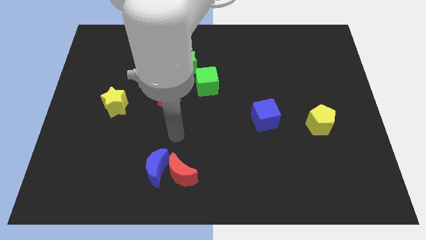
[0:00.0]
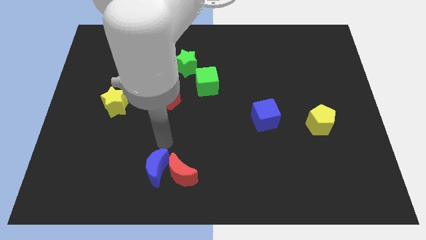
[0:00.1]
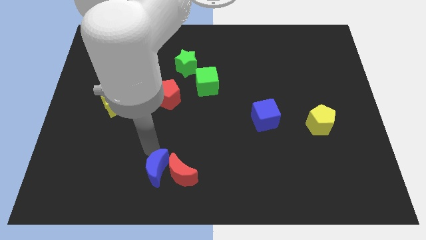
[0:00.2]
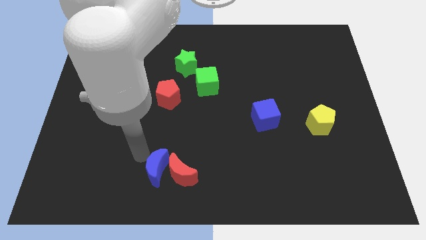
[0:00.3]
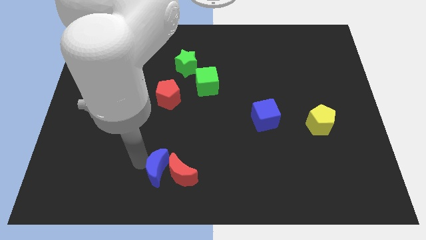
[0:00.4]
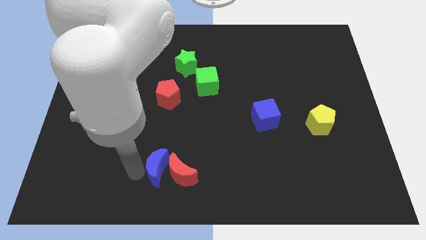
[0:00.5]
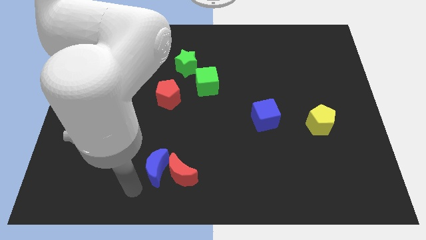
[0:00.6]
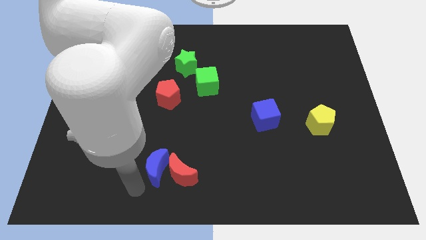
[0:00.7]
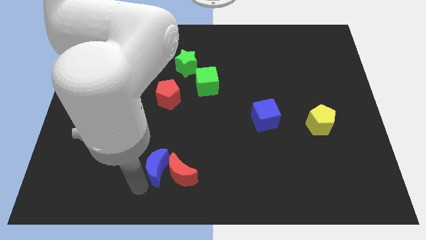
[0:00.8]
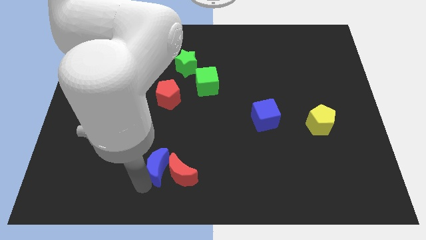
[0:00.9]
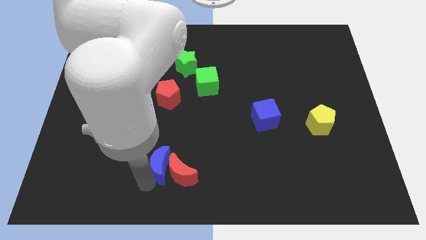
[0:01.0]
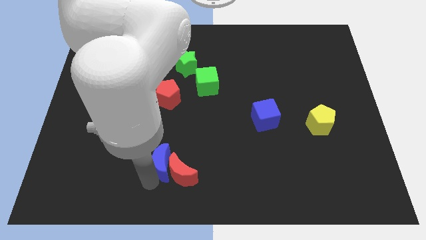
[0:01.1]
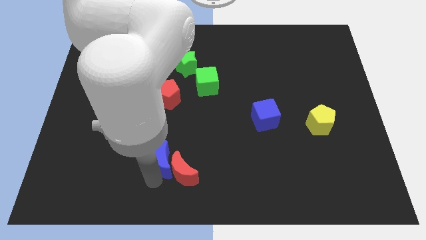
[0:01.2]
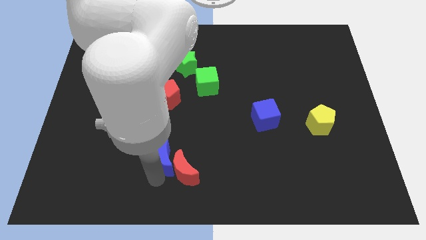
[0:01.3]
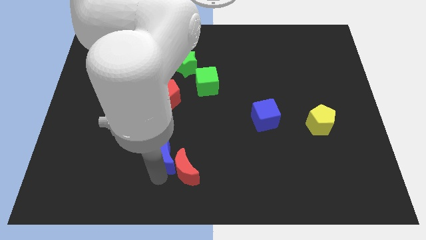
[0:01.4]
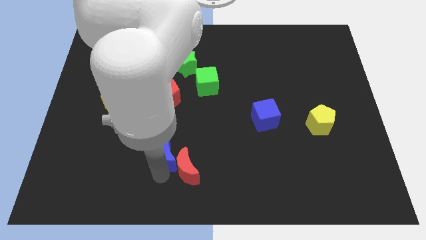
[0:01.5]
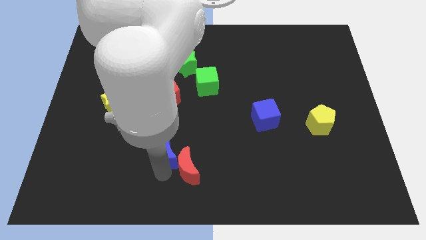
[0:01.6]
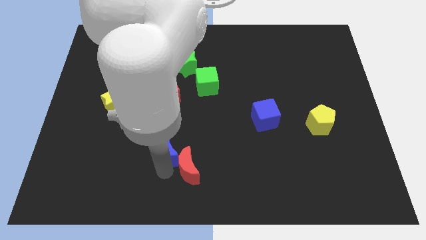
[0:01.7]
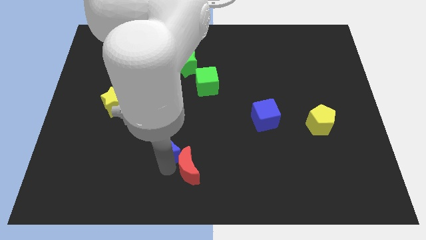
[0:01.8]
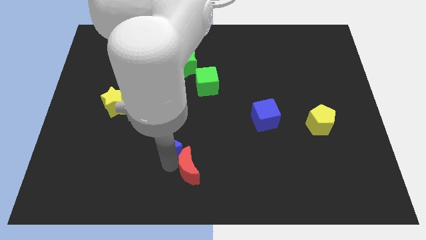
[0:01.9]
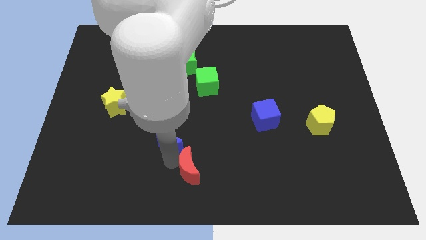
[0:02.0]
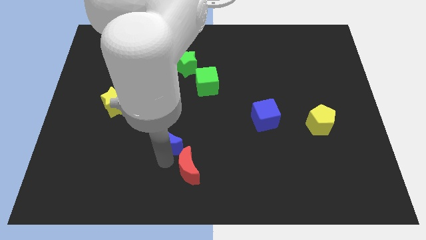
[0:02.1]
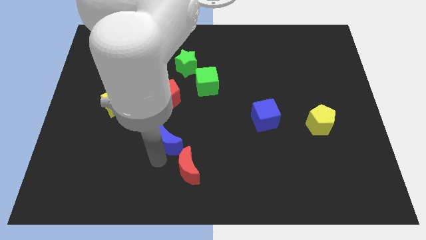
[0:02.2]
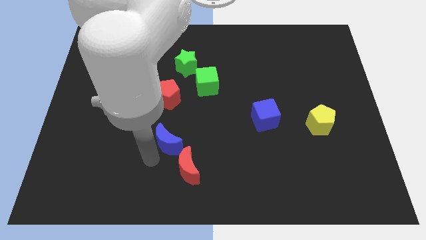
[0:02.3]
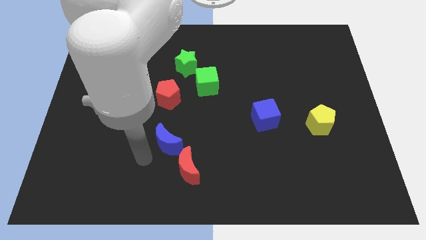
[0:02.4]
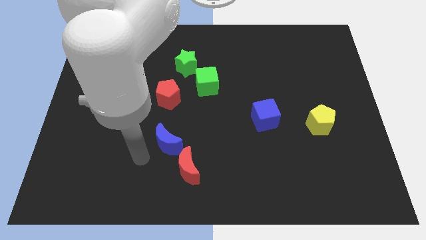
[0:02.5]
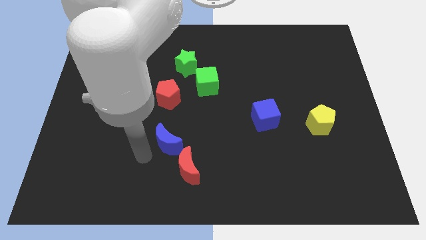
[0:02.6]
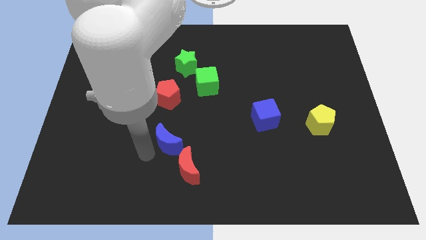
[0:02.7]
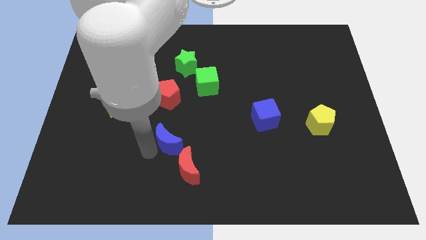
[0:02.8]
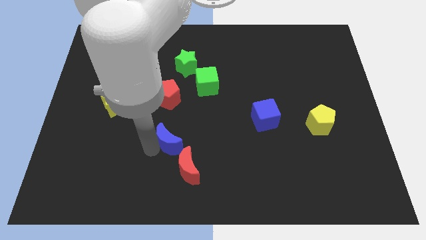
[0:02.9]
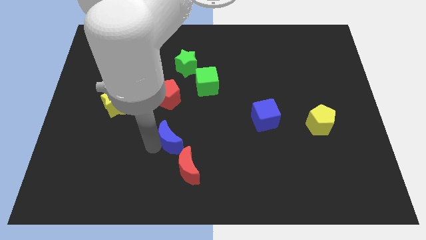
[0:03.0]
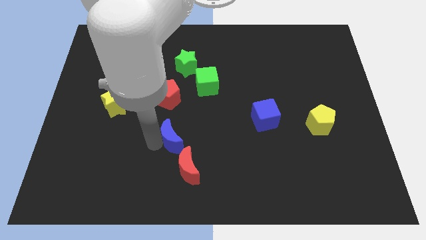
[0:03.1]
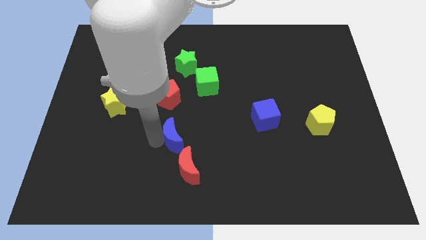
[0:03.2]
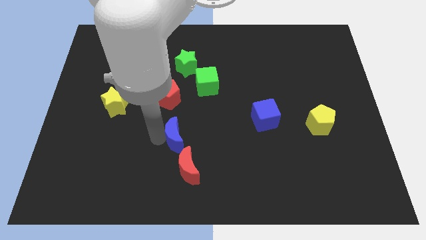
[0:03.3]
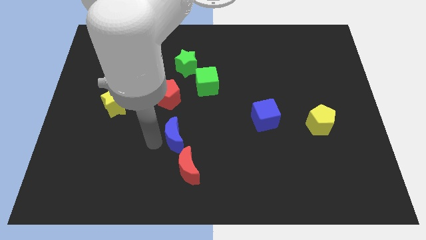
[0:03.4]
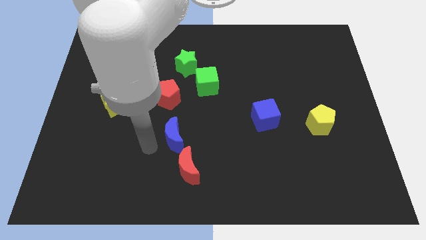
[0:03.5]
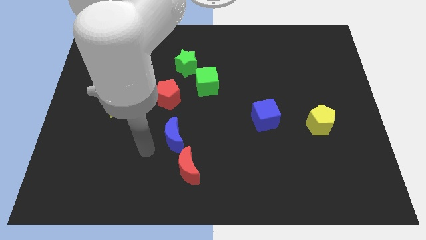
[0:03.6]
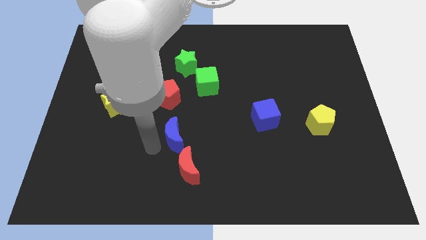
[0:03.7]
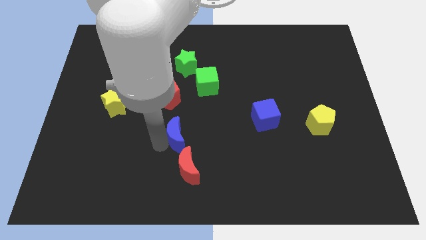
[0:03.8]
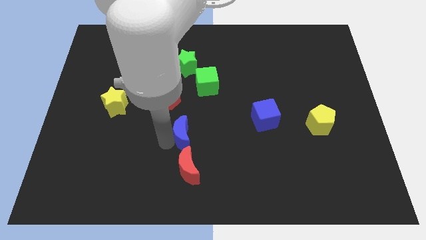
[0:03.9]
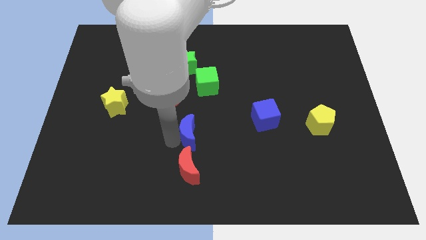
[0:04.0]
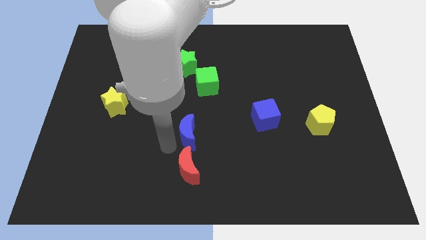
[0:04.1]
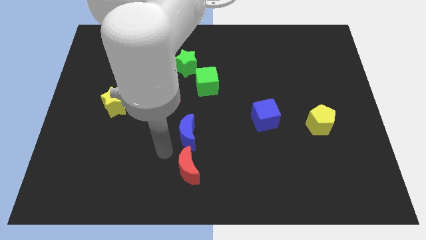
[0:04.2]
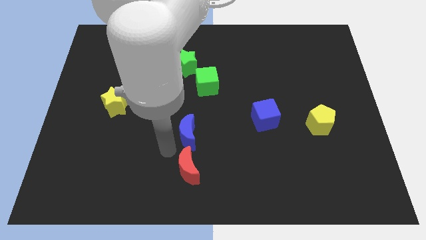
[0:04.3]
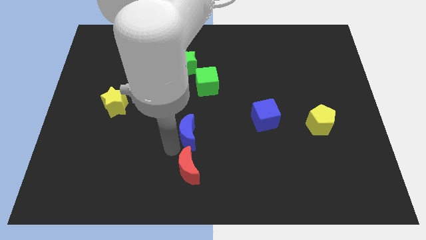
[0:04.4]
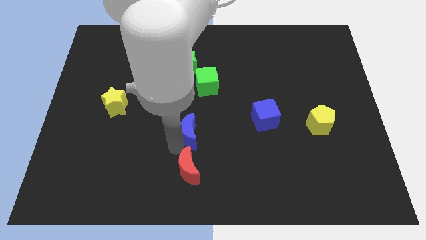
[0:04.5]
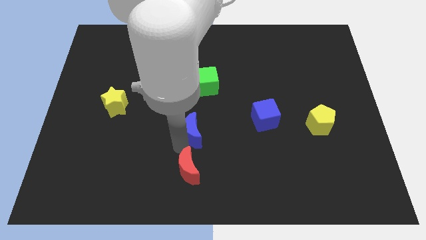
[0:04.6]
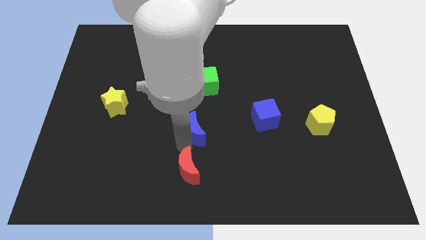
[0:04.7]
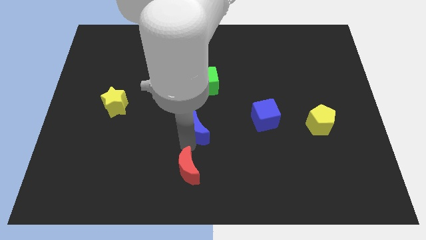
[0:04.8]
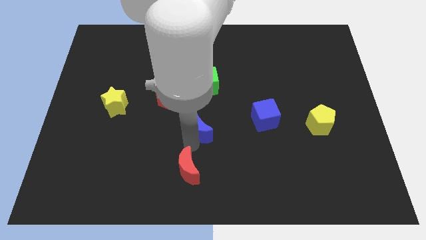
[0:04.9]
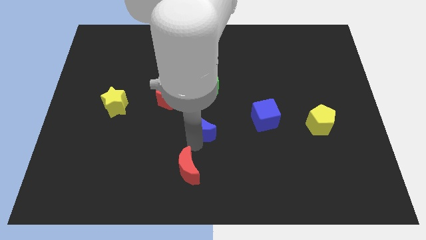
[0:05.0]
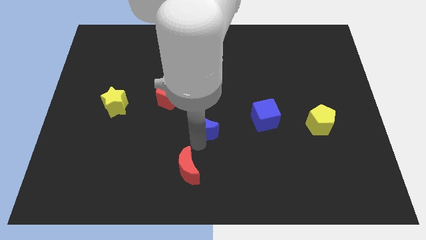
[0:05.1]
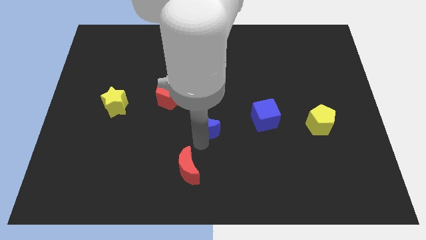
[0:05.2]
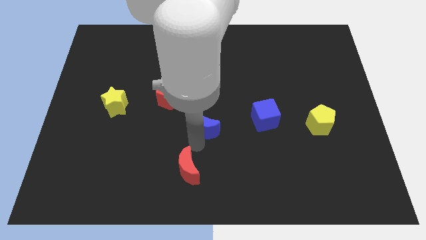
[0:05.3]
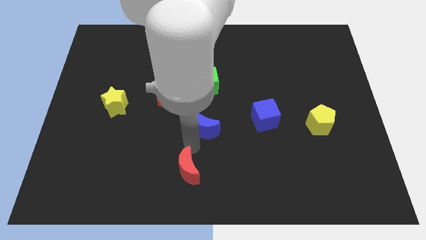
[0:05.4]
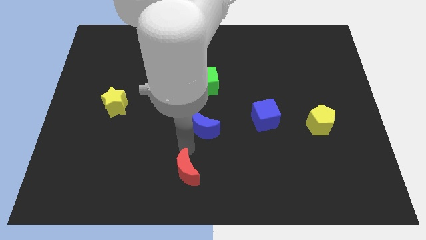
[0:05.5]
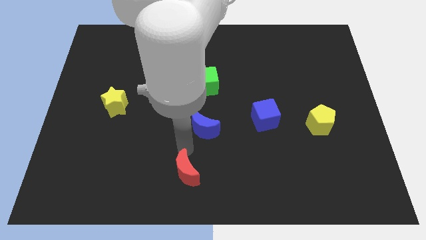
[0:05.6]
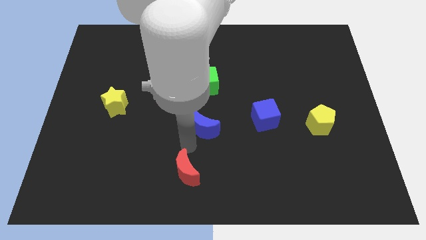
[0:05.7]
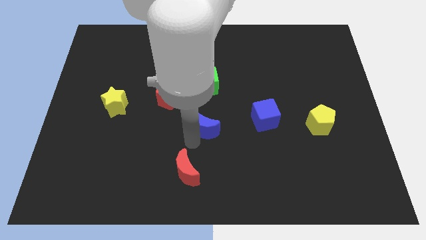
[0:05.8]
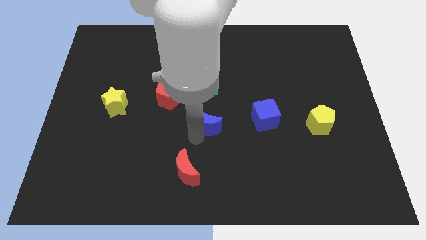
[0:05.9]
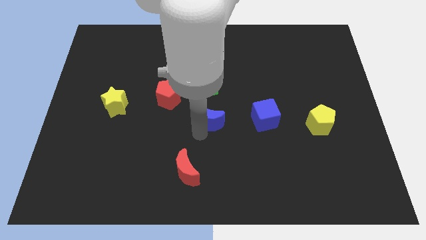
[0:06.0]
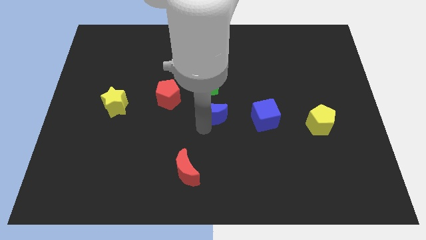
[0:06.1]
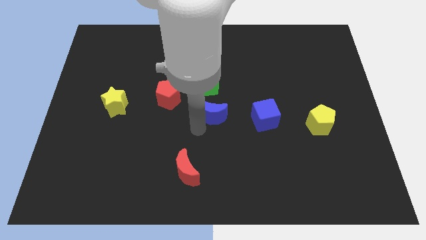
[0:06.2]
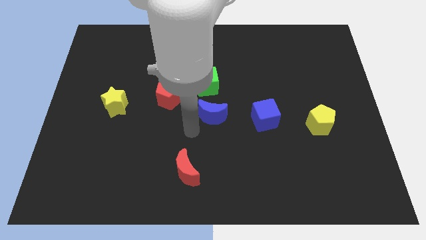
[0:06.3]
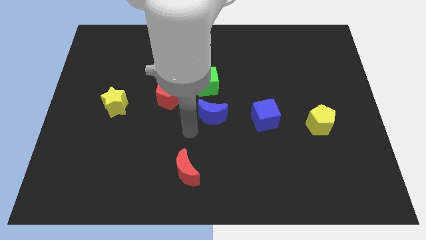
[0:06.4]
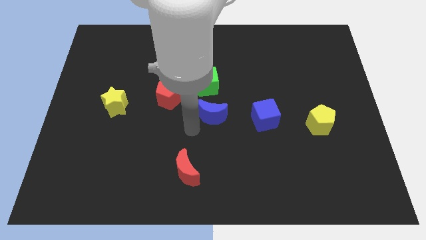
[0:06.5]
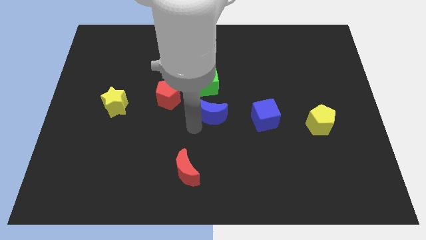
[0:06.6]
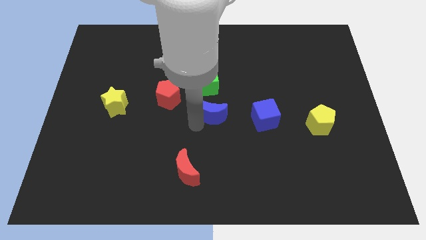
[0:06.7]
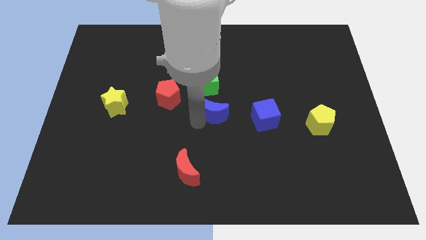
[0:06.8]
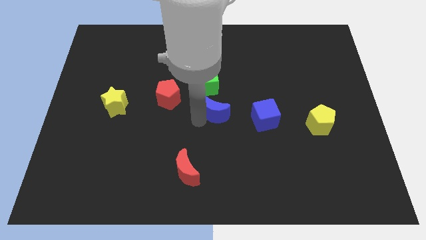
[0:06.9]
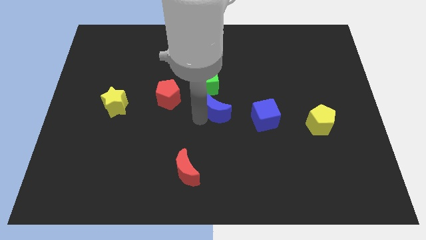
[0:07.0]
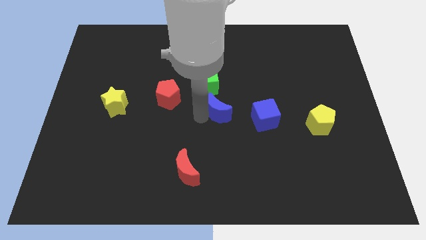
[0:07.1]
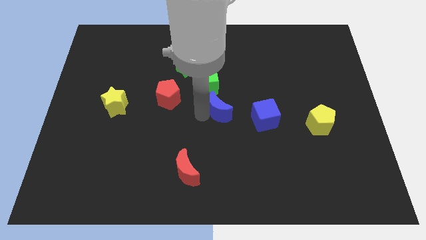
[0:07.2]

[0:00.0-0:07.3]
push the blue moon up and then to the right

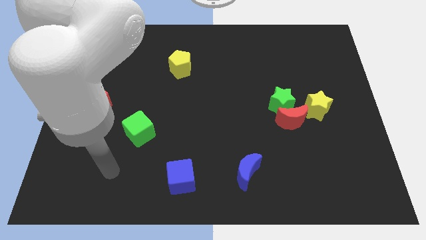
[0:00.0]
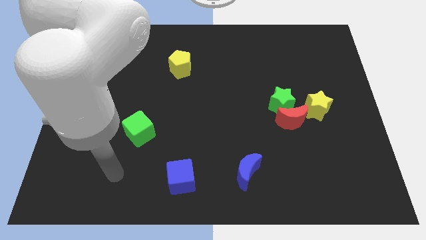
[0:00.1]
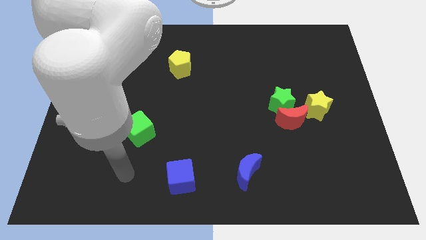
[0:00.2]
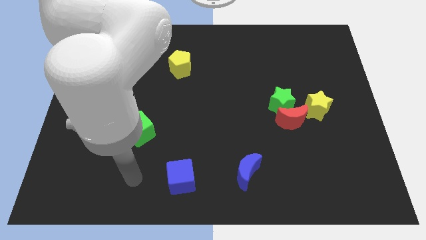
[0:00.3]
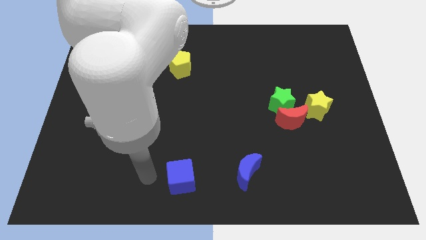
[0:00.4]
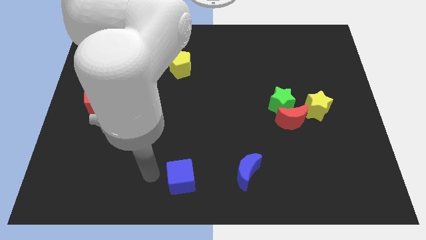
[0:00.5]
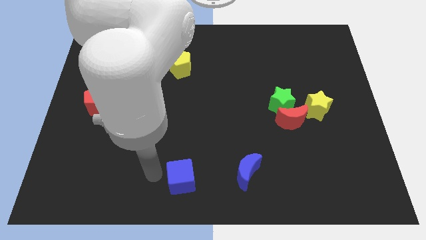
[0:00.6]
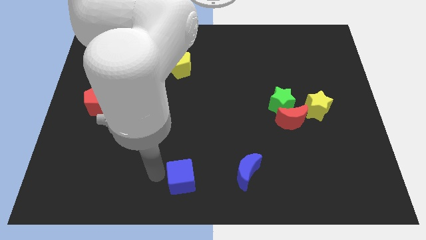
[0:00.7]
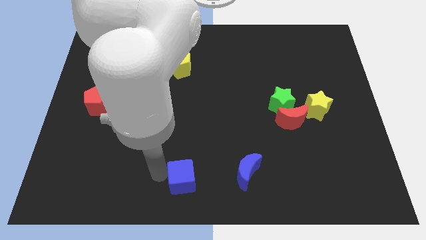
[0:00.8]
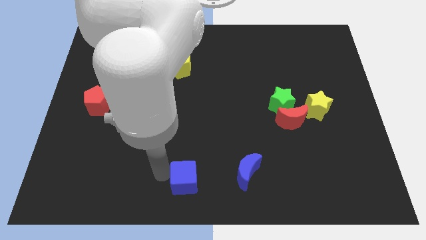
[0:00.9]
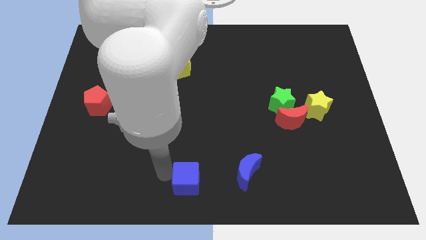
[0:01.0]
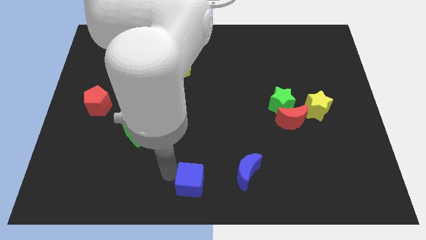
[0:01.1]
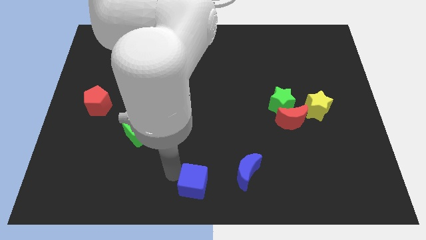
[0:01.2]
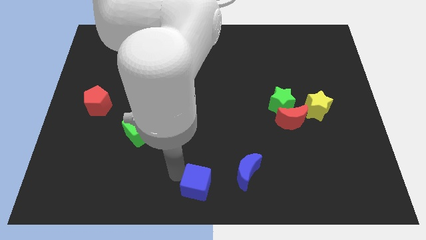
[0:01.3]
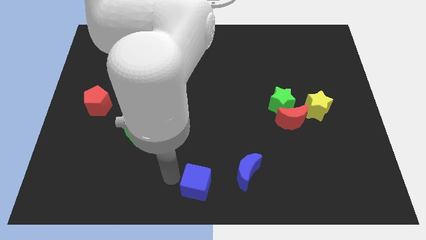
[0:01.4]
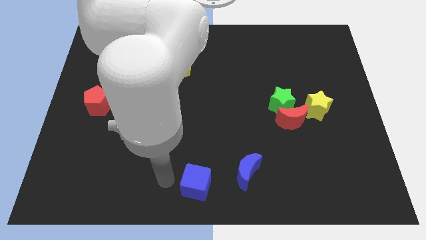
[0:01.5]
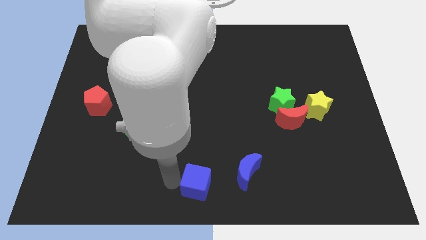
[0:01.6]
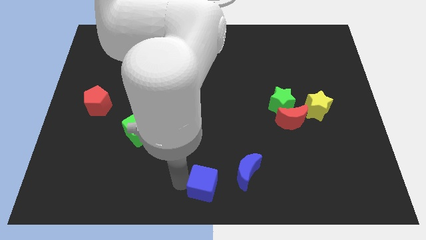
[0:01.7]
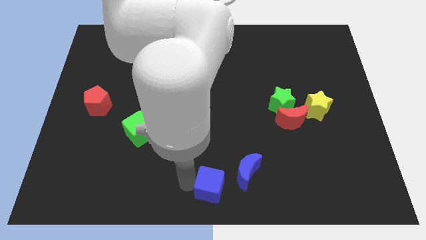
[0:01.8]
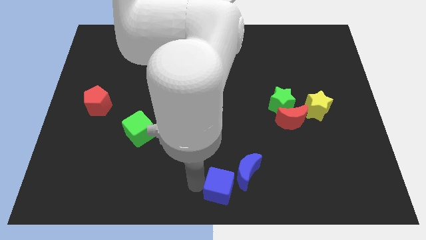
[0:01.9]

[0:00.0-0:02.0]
slightly slide the blue cube to the right
